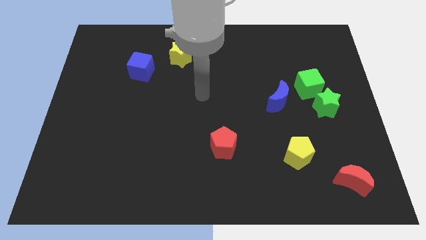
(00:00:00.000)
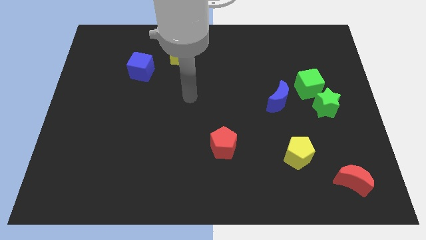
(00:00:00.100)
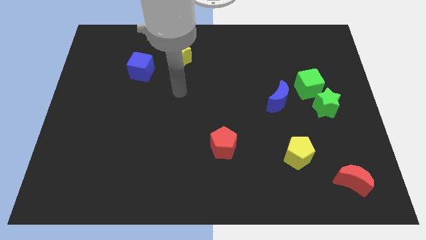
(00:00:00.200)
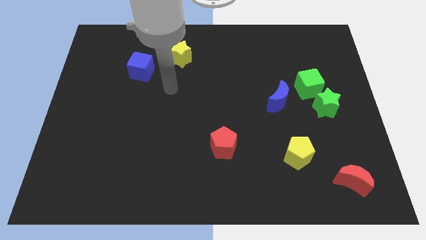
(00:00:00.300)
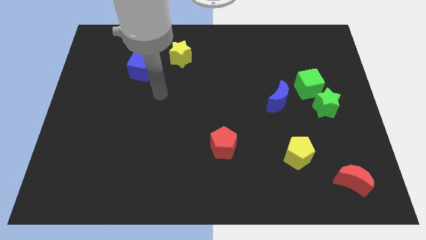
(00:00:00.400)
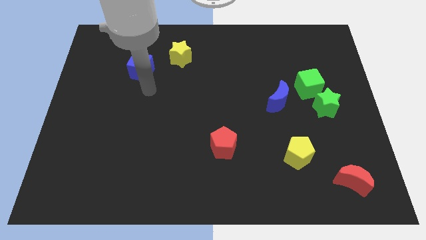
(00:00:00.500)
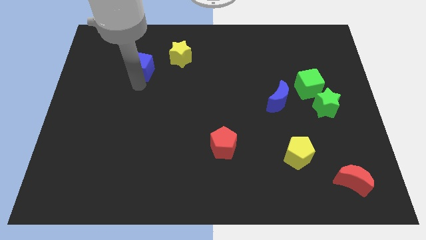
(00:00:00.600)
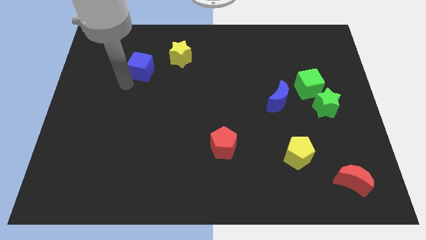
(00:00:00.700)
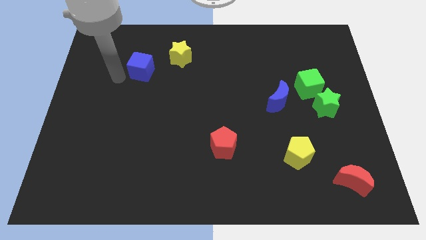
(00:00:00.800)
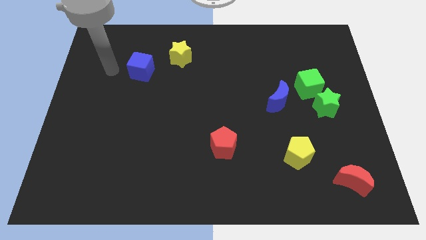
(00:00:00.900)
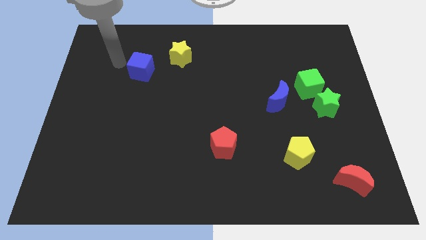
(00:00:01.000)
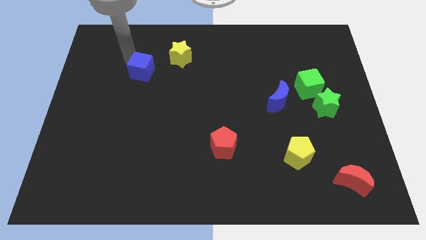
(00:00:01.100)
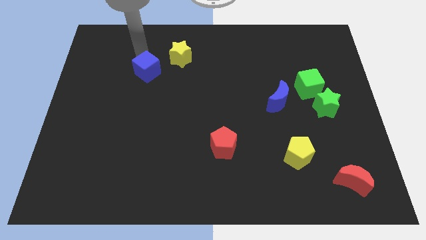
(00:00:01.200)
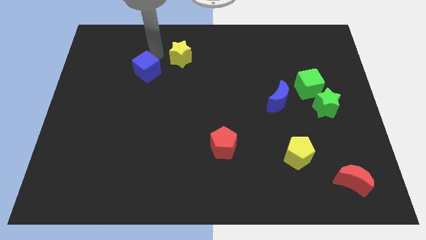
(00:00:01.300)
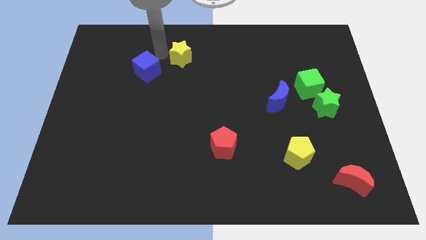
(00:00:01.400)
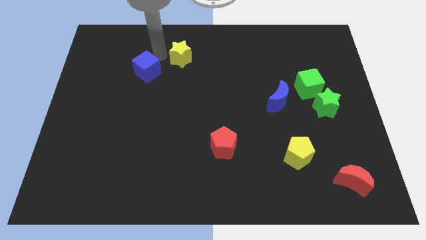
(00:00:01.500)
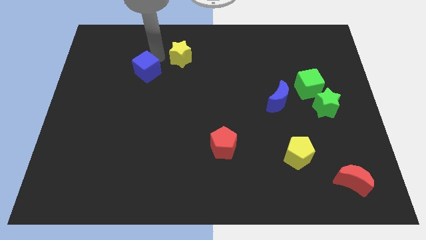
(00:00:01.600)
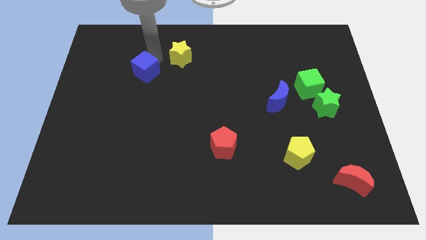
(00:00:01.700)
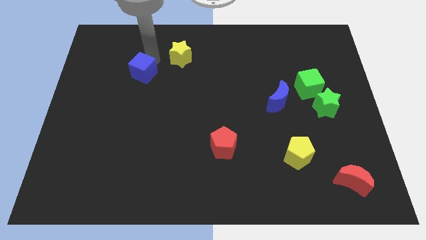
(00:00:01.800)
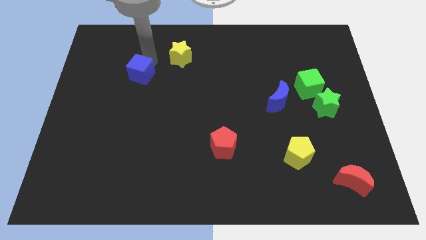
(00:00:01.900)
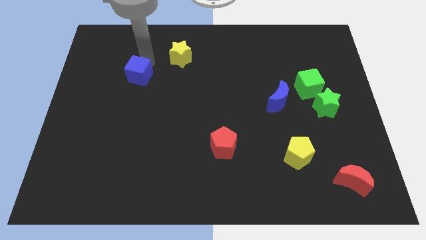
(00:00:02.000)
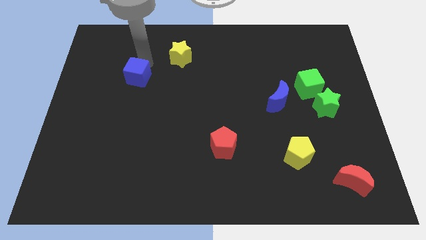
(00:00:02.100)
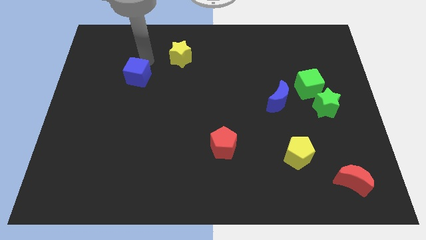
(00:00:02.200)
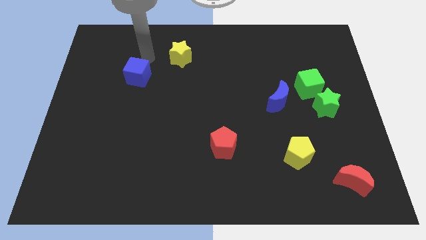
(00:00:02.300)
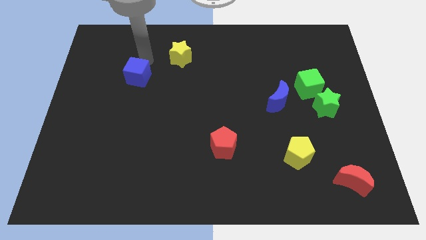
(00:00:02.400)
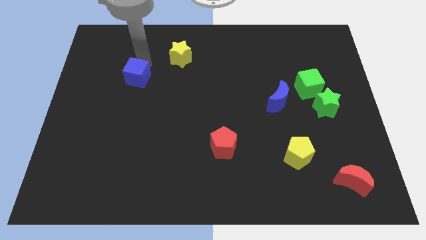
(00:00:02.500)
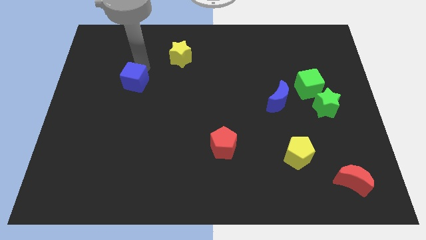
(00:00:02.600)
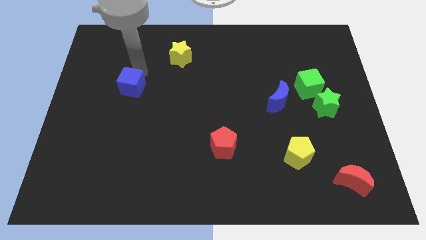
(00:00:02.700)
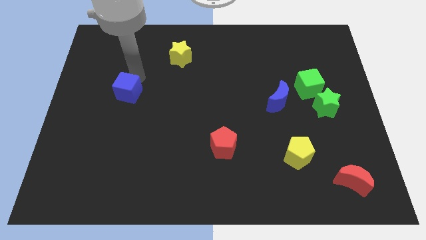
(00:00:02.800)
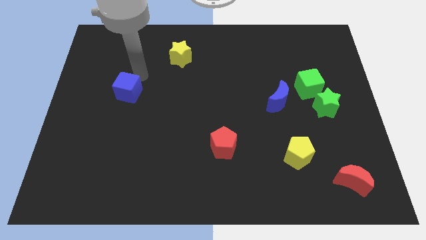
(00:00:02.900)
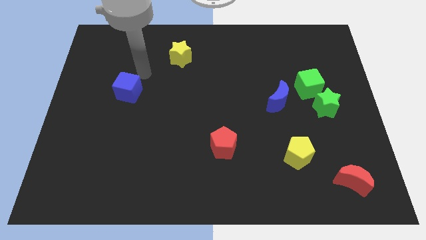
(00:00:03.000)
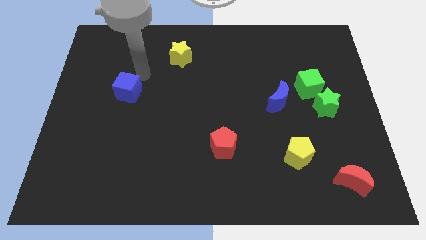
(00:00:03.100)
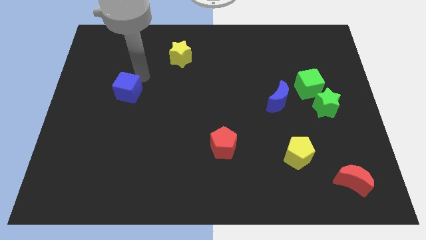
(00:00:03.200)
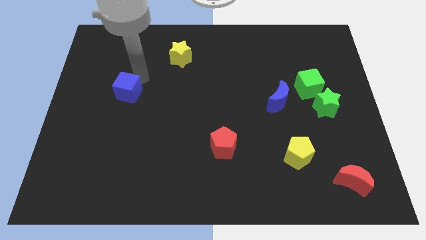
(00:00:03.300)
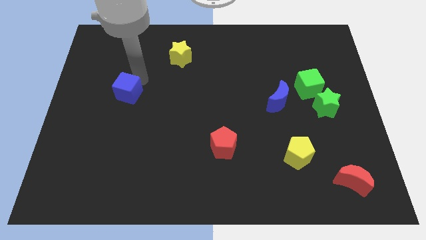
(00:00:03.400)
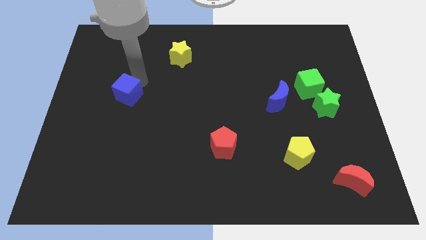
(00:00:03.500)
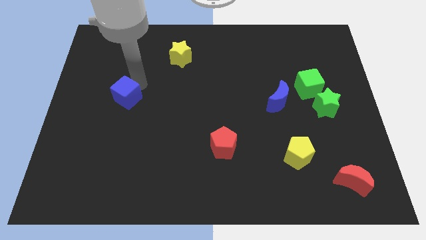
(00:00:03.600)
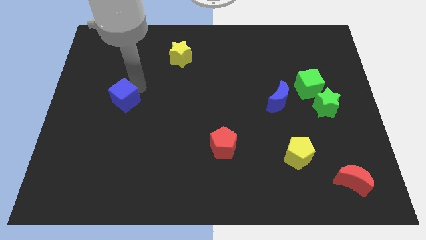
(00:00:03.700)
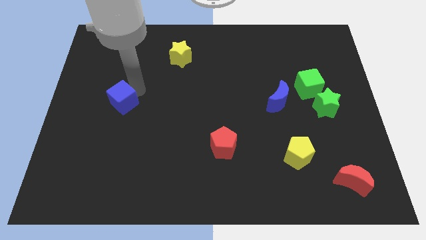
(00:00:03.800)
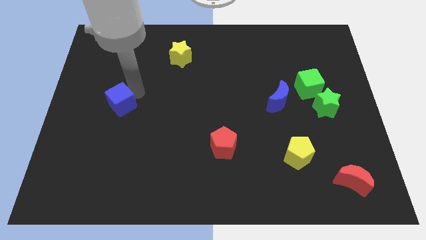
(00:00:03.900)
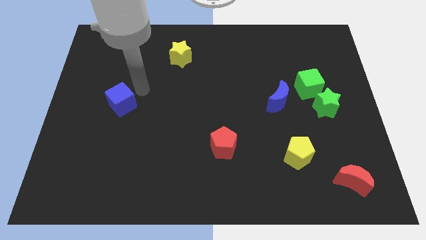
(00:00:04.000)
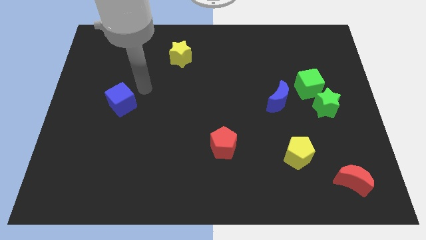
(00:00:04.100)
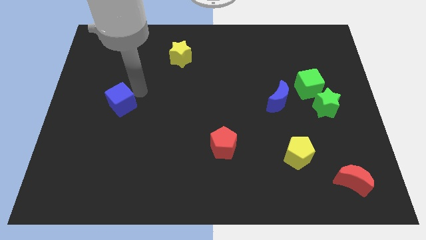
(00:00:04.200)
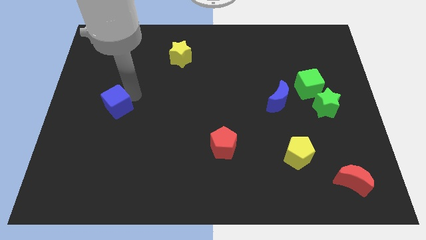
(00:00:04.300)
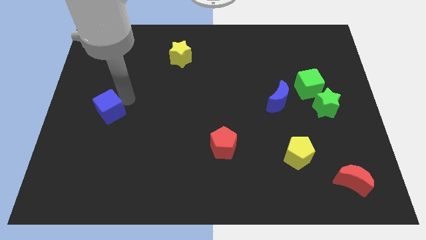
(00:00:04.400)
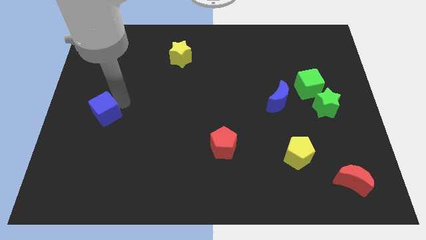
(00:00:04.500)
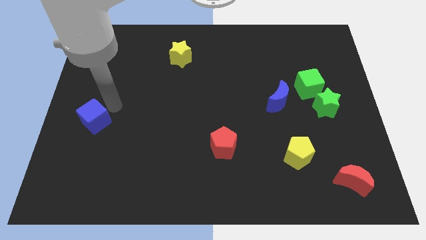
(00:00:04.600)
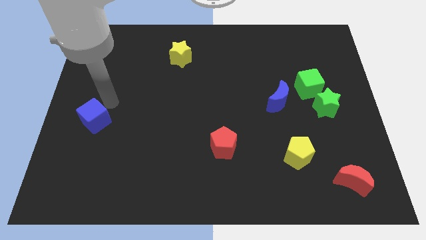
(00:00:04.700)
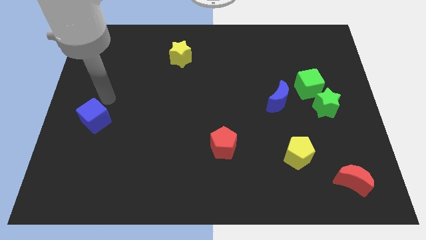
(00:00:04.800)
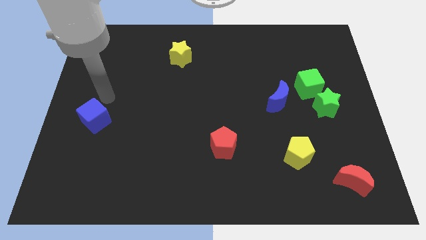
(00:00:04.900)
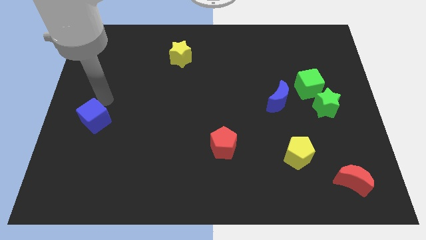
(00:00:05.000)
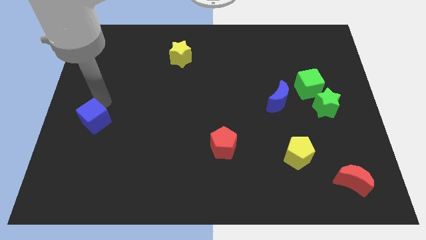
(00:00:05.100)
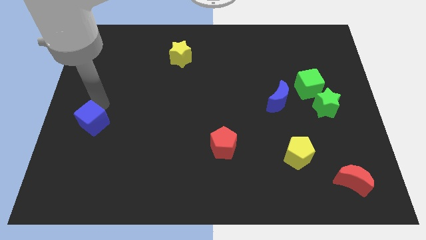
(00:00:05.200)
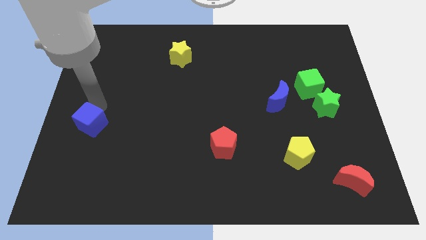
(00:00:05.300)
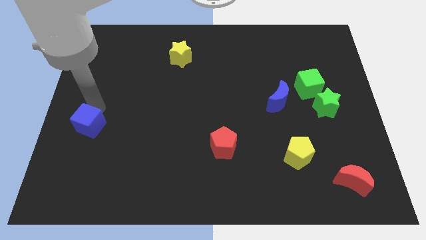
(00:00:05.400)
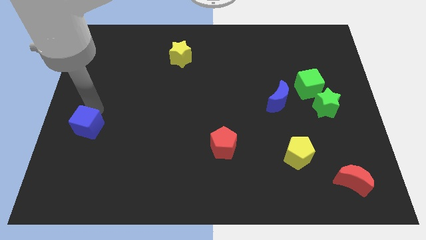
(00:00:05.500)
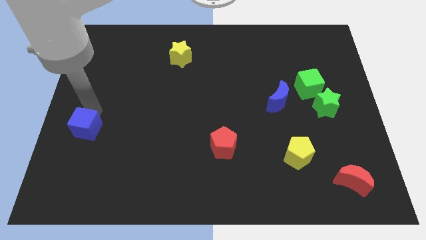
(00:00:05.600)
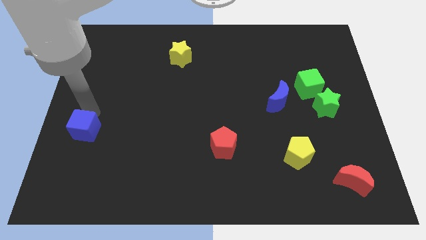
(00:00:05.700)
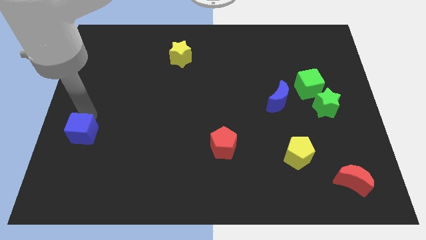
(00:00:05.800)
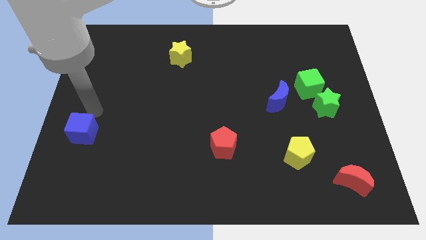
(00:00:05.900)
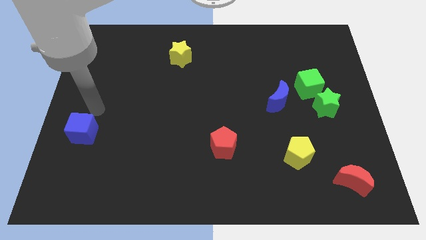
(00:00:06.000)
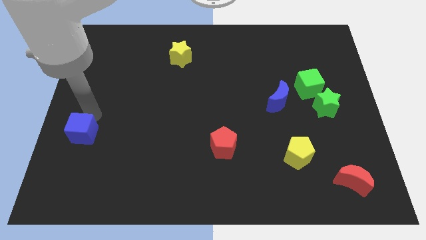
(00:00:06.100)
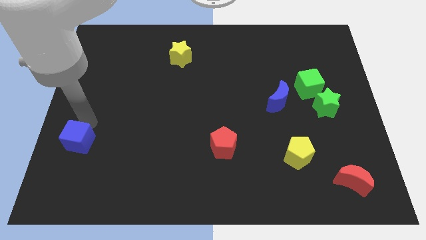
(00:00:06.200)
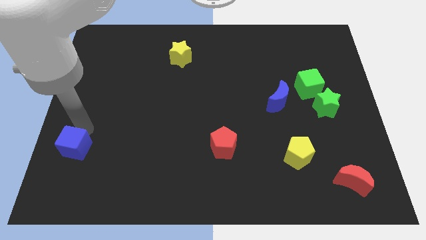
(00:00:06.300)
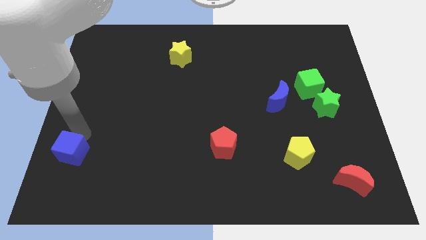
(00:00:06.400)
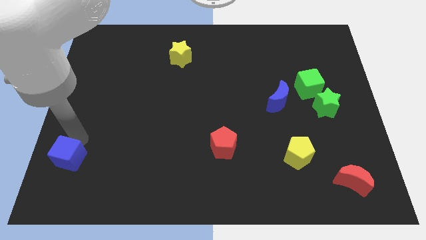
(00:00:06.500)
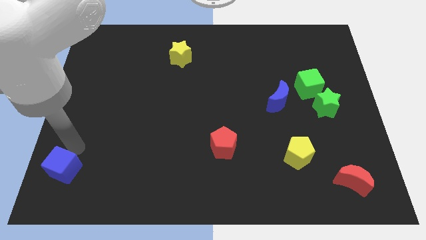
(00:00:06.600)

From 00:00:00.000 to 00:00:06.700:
slide the blue cube to the bottom left corner
